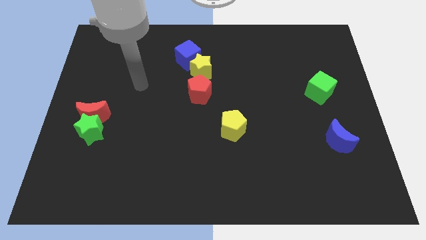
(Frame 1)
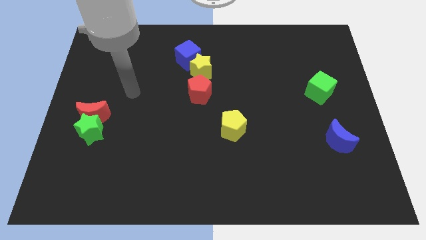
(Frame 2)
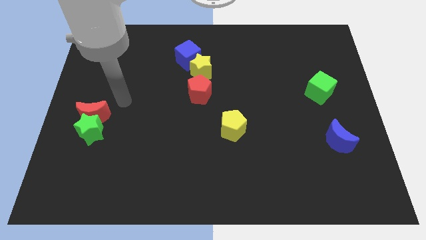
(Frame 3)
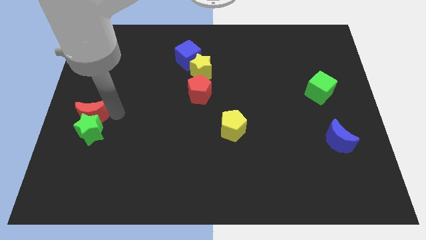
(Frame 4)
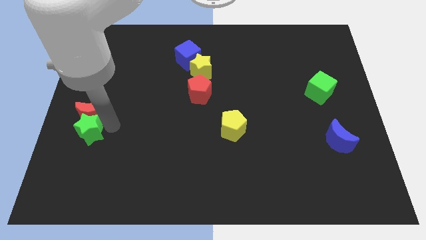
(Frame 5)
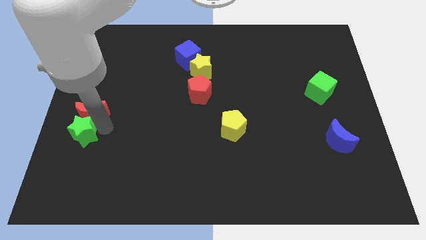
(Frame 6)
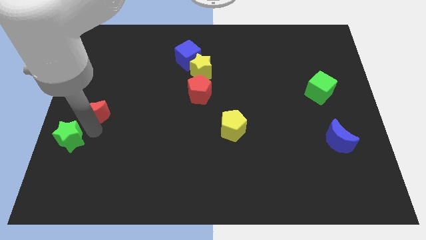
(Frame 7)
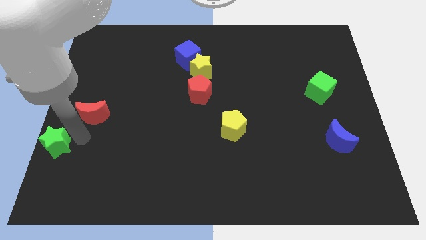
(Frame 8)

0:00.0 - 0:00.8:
separate the red moon from the green star

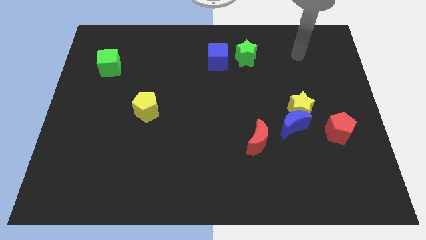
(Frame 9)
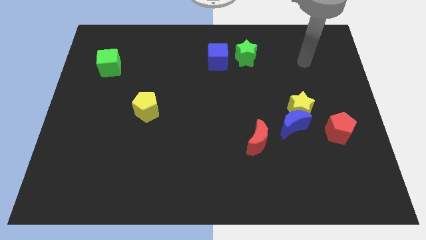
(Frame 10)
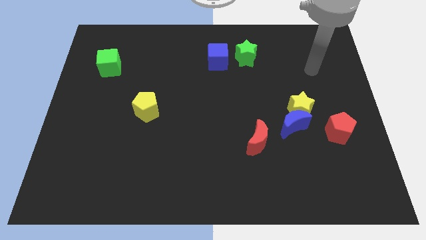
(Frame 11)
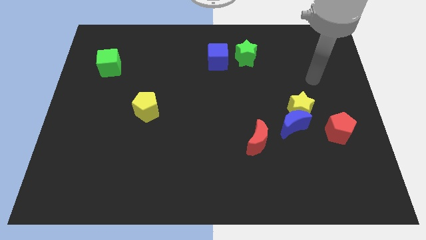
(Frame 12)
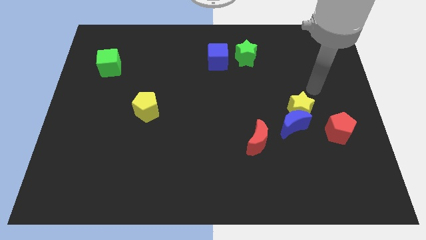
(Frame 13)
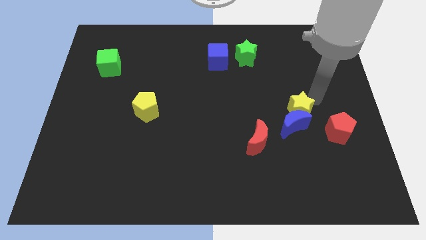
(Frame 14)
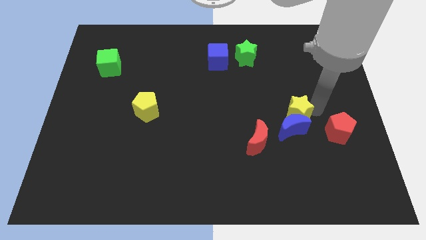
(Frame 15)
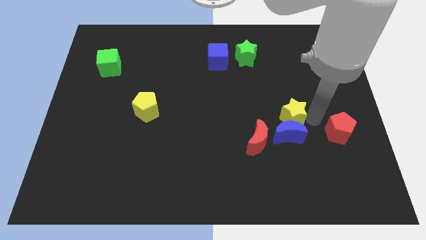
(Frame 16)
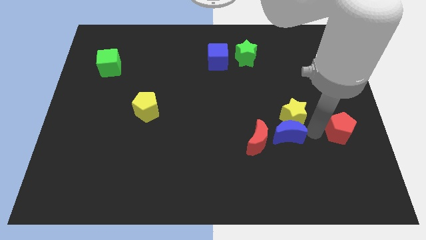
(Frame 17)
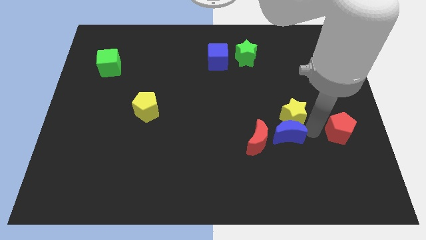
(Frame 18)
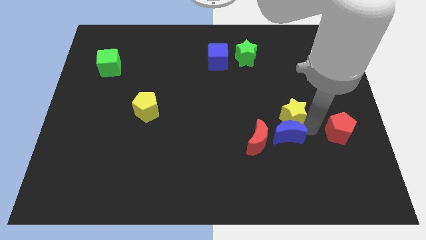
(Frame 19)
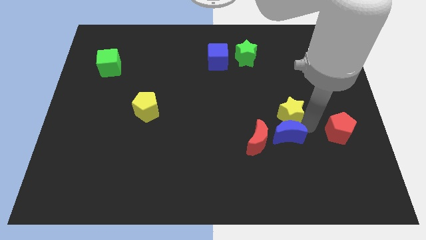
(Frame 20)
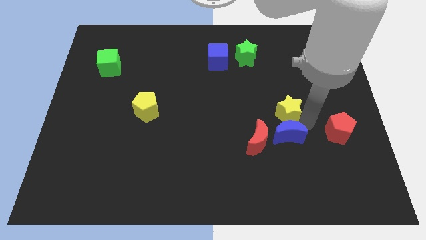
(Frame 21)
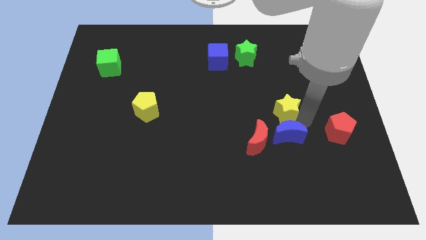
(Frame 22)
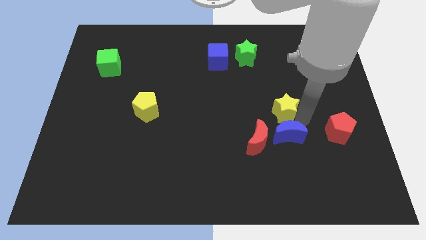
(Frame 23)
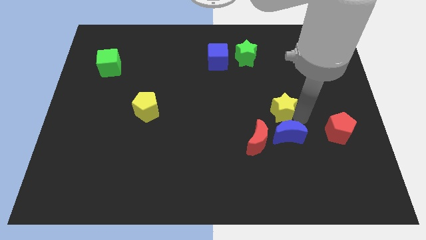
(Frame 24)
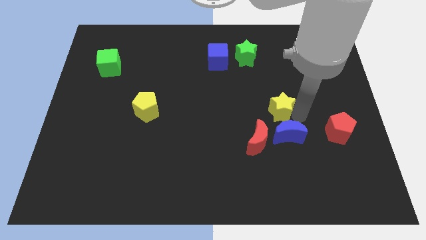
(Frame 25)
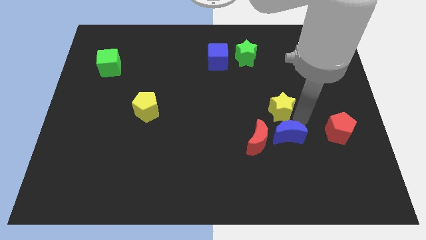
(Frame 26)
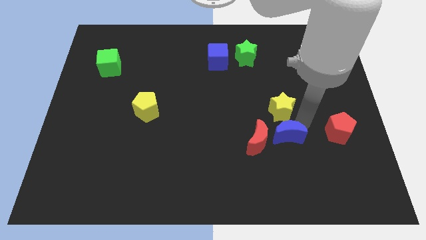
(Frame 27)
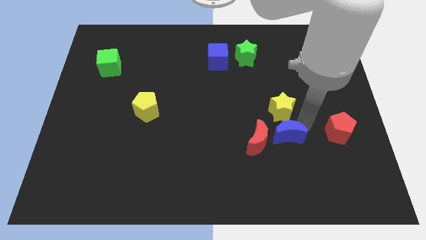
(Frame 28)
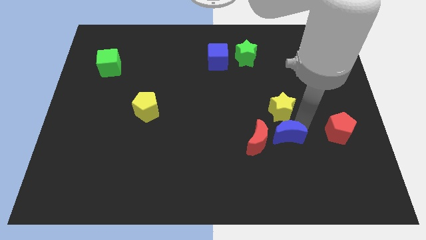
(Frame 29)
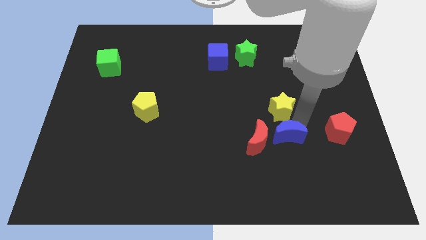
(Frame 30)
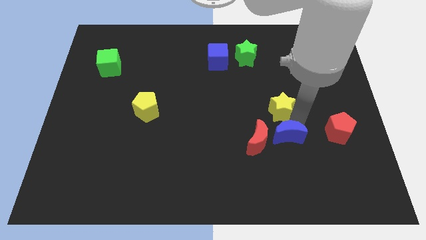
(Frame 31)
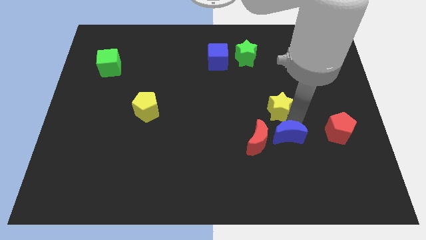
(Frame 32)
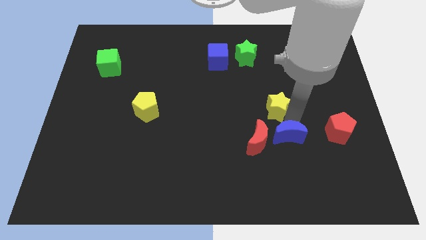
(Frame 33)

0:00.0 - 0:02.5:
move the yellow star away from the blue moon and red pentagon

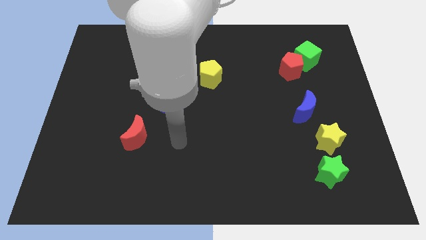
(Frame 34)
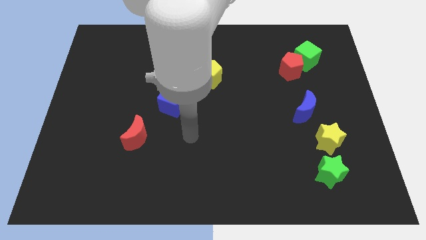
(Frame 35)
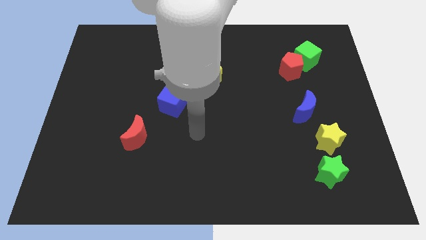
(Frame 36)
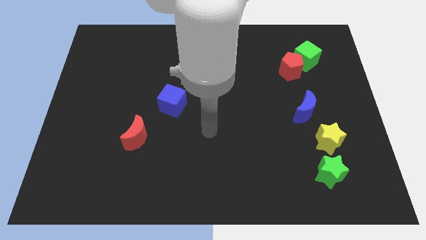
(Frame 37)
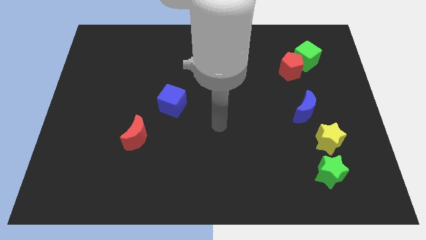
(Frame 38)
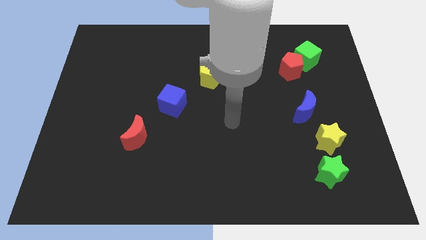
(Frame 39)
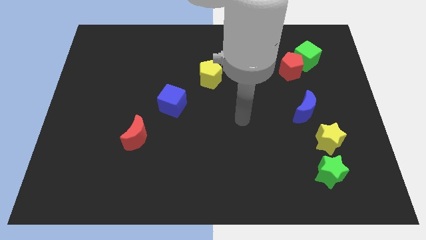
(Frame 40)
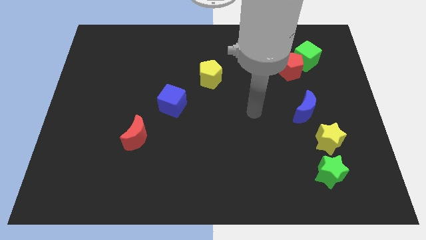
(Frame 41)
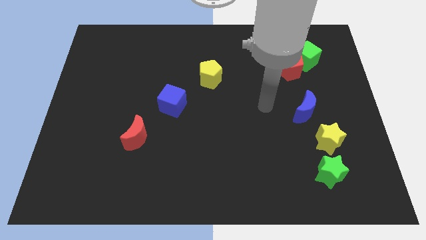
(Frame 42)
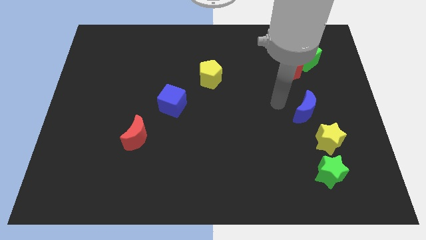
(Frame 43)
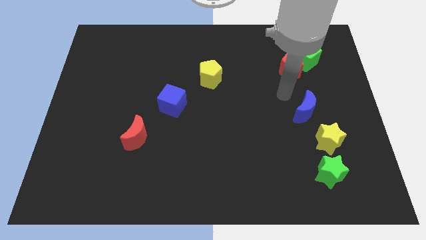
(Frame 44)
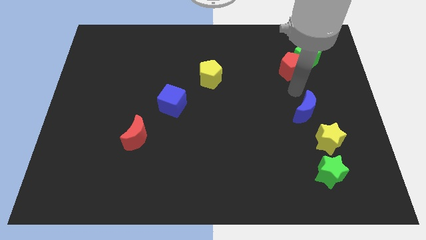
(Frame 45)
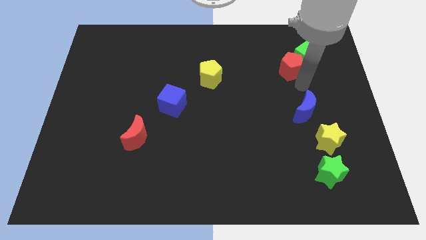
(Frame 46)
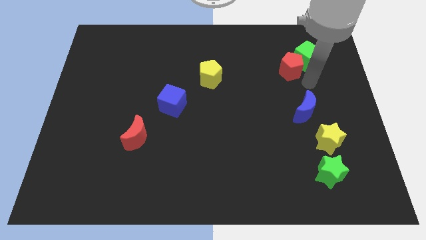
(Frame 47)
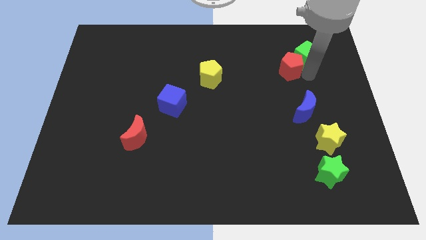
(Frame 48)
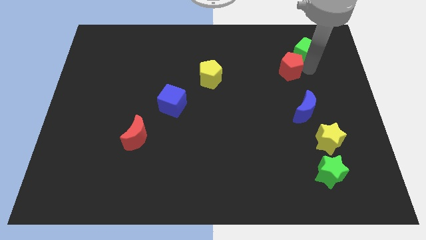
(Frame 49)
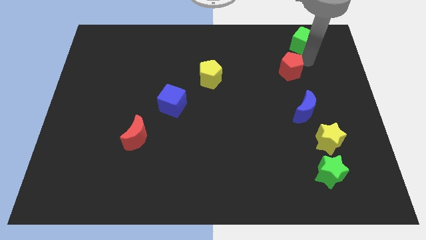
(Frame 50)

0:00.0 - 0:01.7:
separate the red pentagon from the green cube

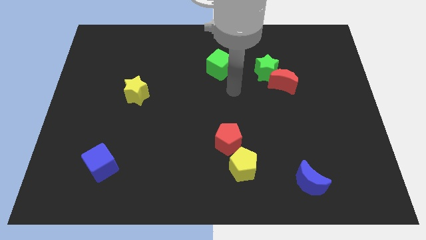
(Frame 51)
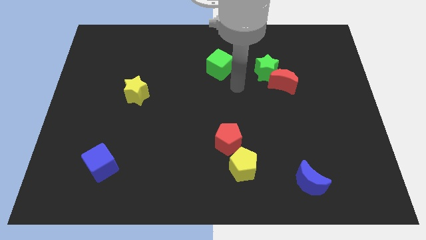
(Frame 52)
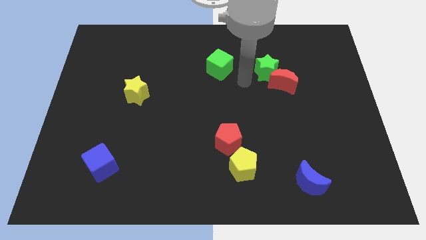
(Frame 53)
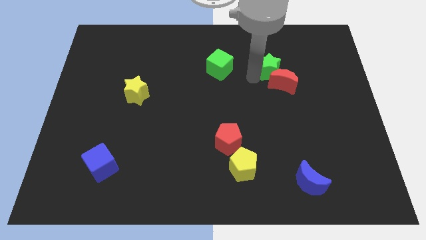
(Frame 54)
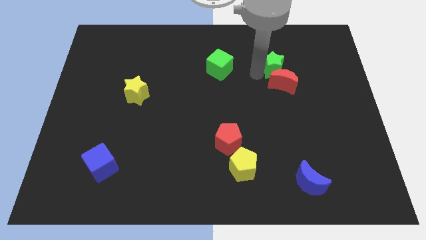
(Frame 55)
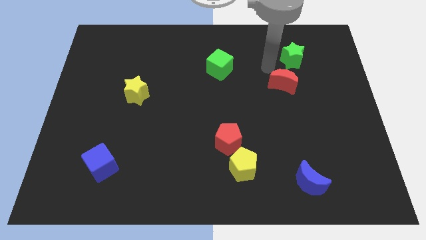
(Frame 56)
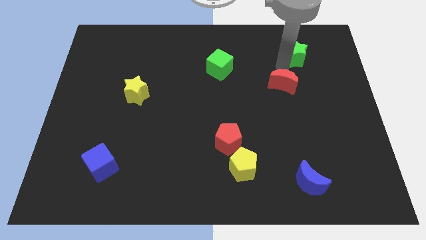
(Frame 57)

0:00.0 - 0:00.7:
pull the red moon apart from the green star

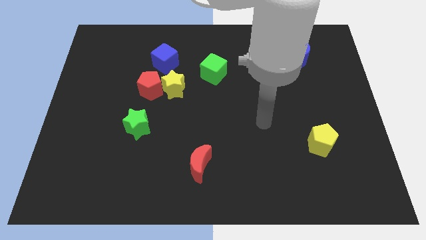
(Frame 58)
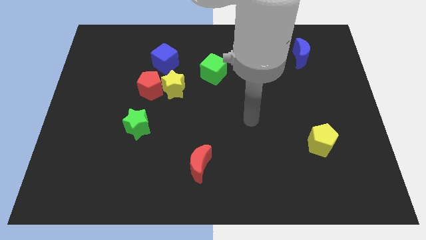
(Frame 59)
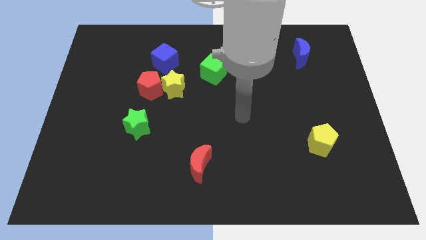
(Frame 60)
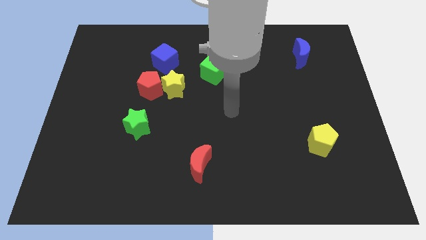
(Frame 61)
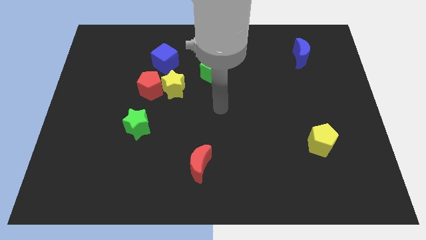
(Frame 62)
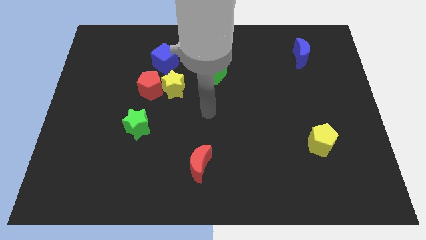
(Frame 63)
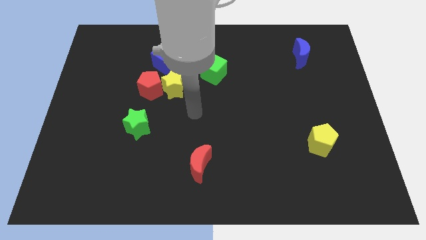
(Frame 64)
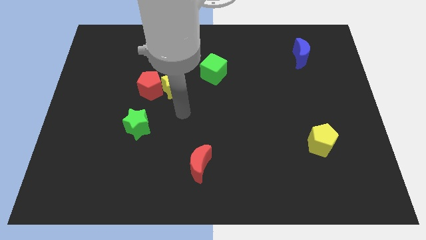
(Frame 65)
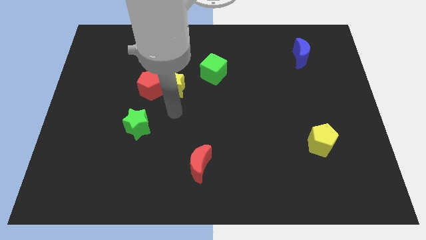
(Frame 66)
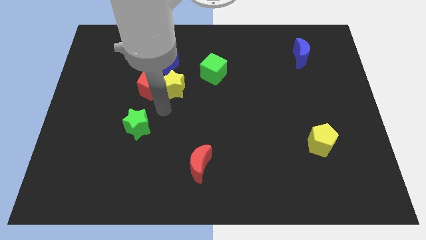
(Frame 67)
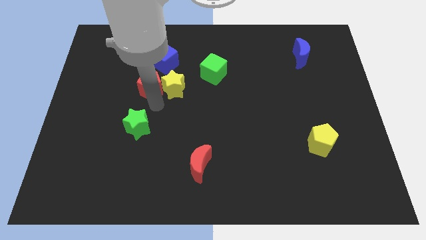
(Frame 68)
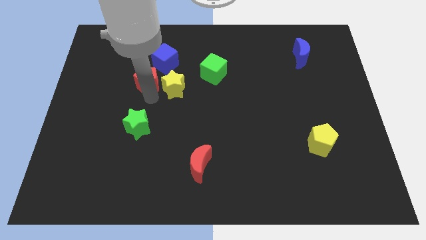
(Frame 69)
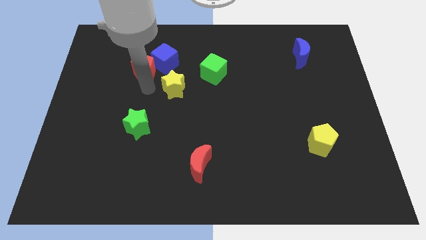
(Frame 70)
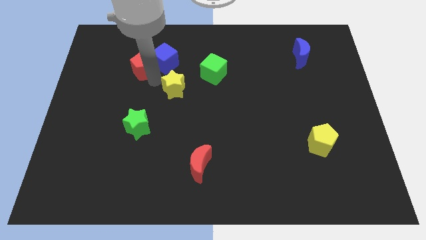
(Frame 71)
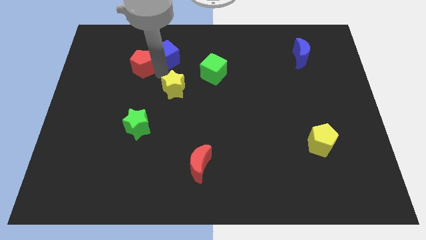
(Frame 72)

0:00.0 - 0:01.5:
move the yellow star away from the red pentagon and blue cube

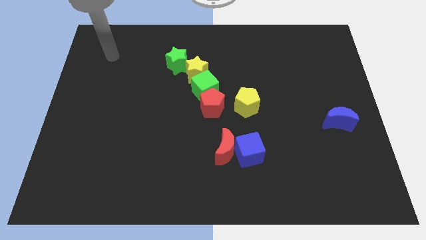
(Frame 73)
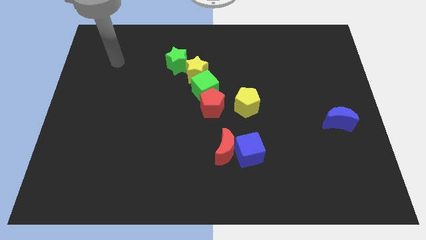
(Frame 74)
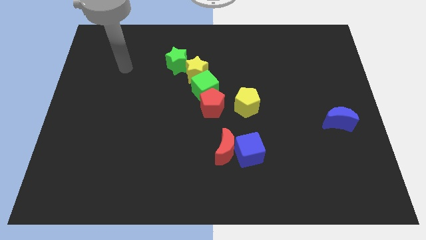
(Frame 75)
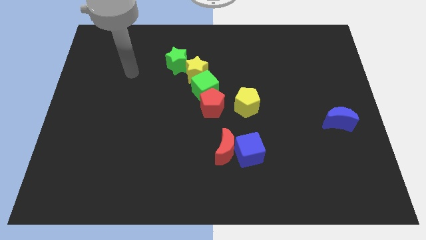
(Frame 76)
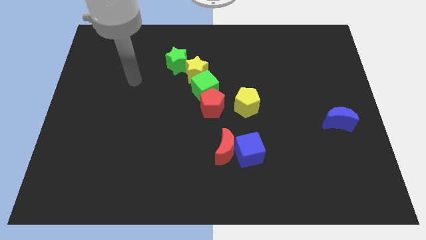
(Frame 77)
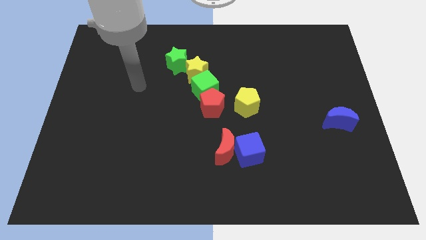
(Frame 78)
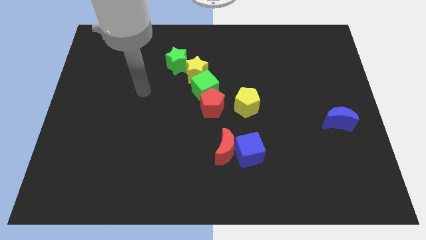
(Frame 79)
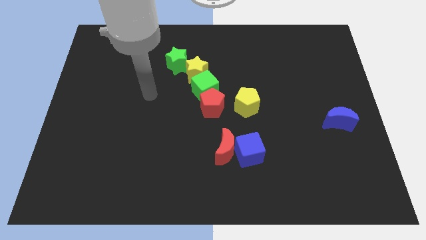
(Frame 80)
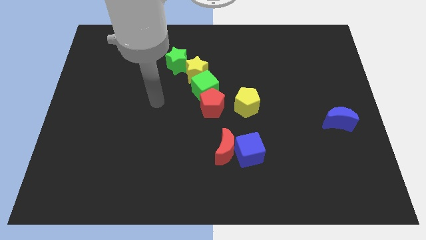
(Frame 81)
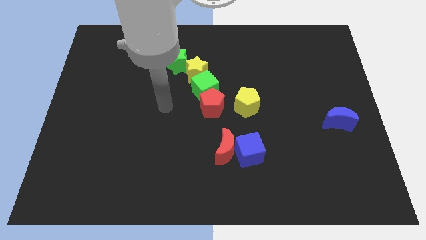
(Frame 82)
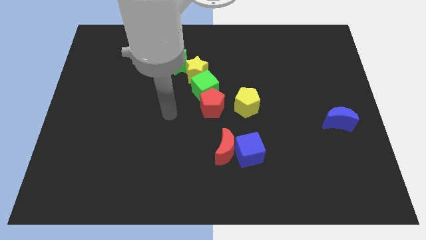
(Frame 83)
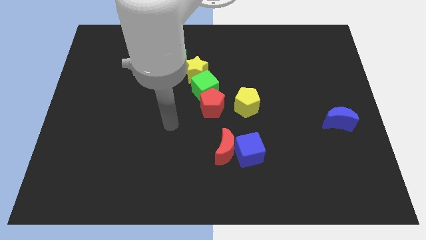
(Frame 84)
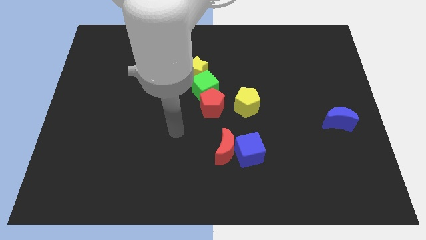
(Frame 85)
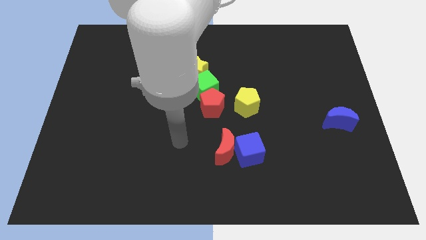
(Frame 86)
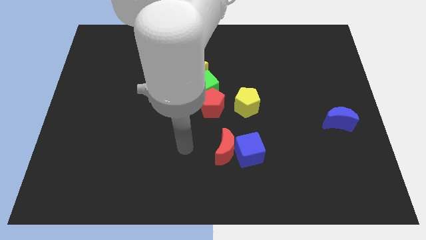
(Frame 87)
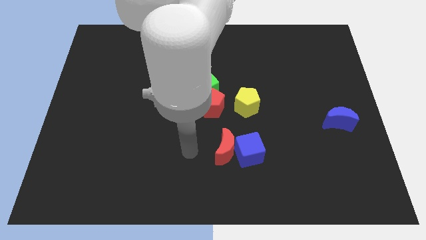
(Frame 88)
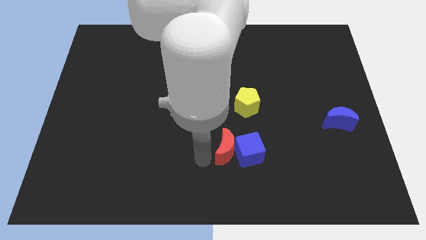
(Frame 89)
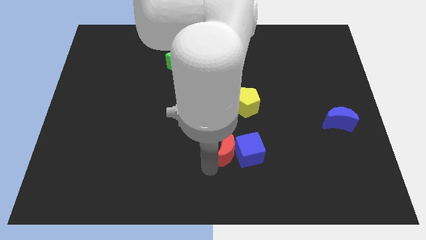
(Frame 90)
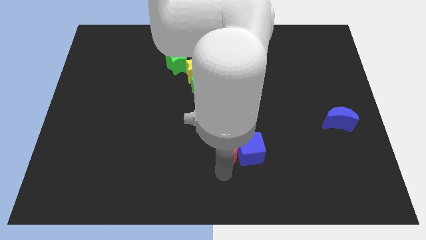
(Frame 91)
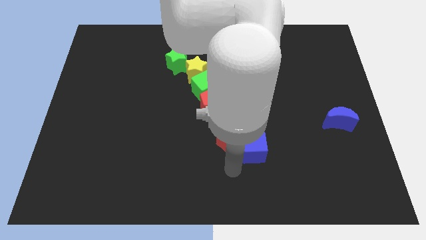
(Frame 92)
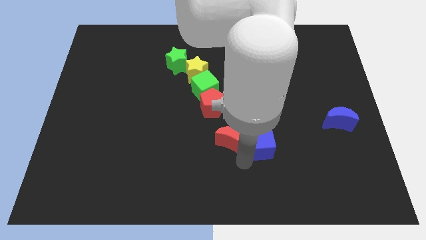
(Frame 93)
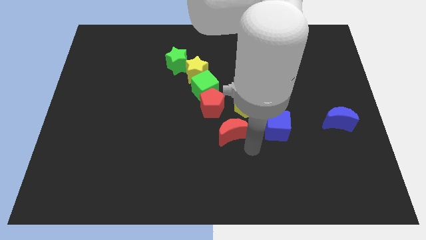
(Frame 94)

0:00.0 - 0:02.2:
pull the red moon apart from the blue cube
